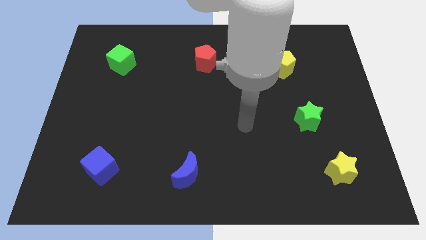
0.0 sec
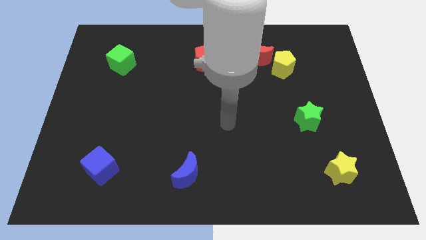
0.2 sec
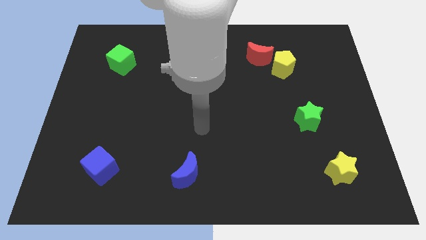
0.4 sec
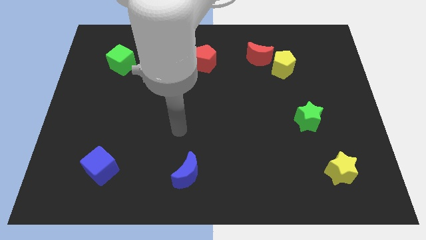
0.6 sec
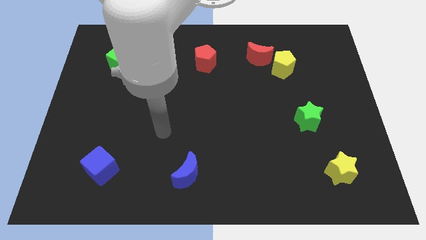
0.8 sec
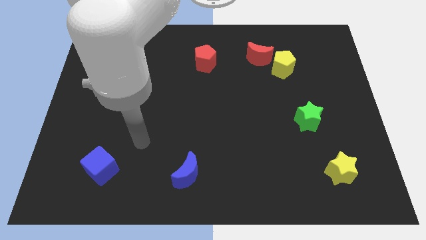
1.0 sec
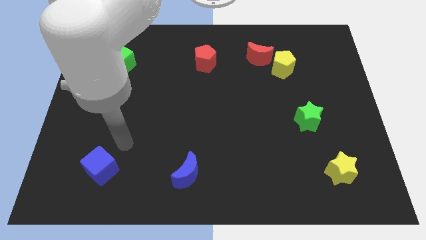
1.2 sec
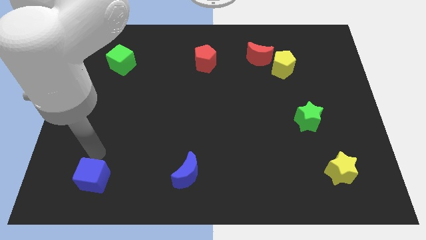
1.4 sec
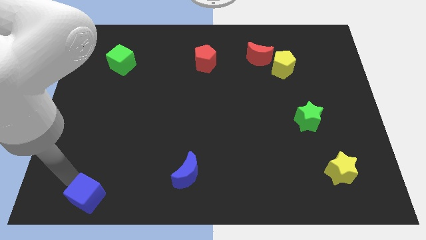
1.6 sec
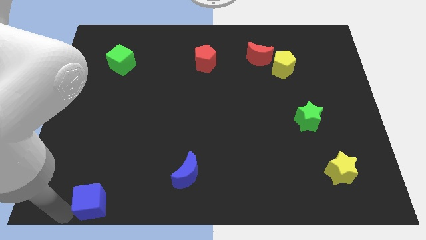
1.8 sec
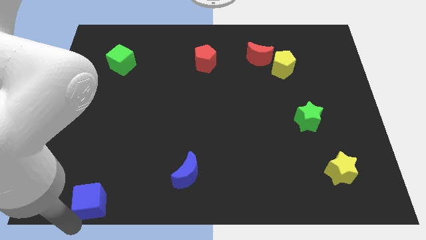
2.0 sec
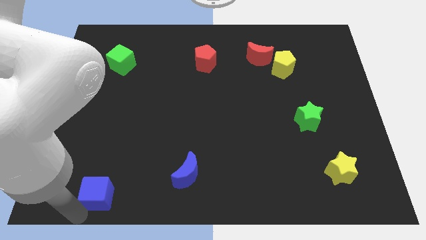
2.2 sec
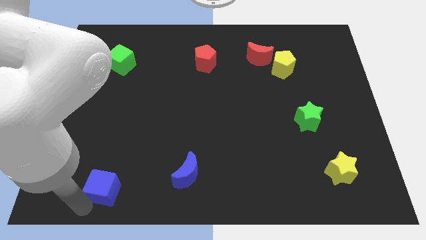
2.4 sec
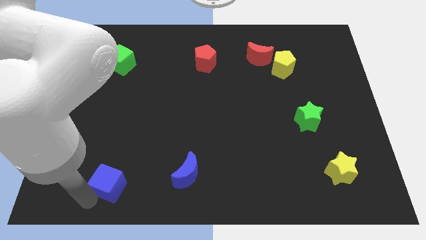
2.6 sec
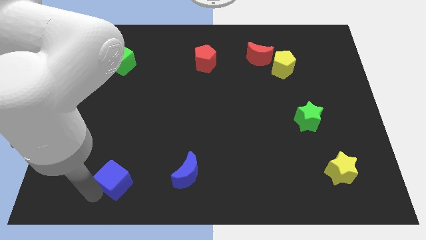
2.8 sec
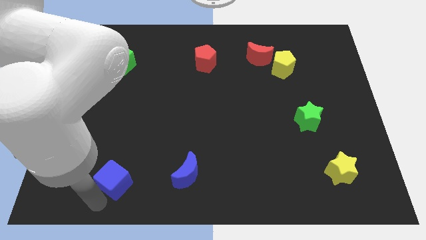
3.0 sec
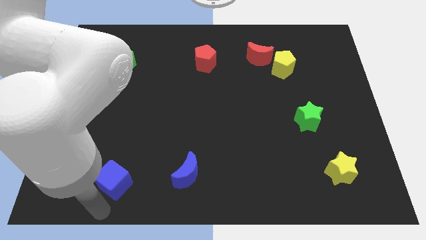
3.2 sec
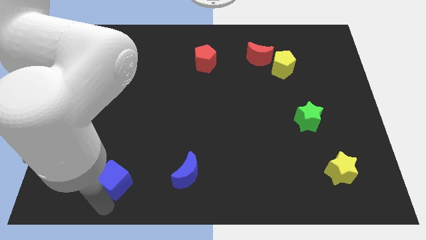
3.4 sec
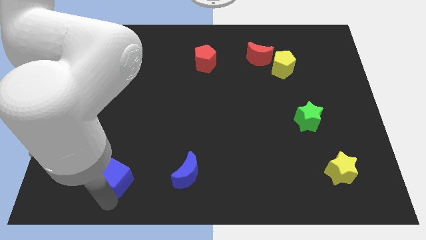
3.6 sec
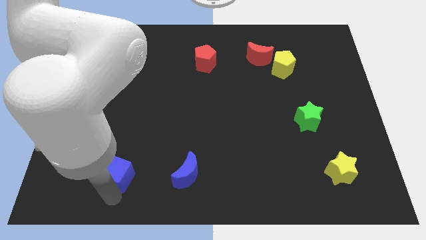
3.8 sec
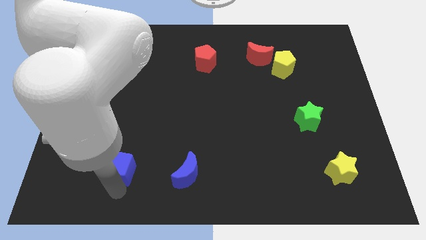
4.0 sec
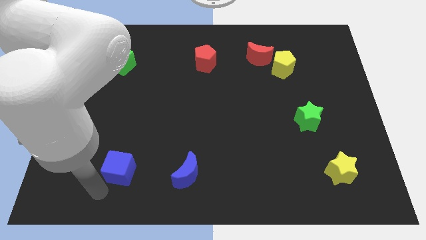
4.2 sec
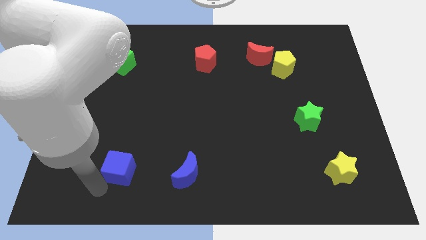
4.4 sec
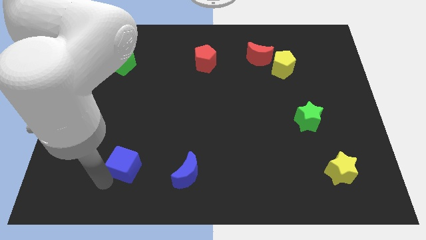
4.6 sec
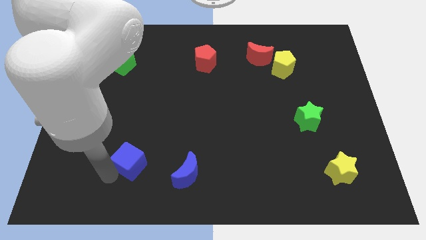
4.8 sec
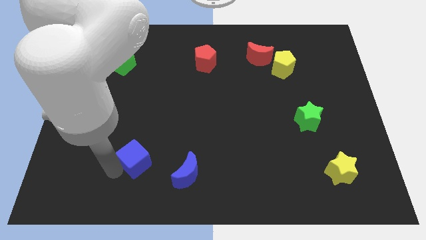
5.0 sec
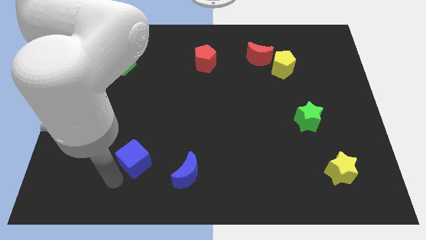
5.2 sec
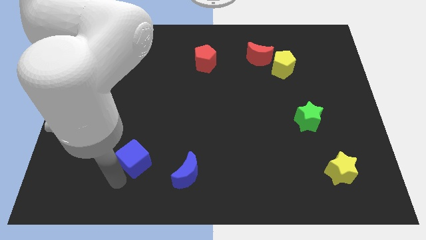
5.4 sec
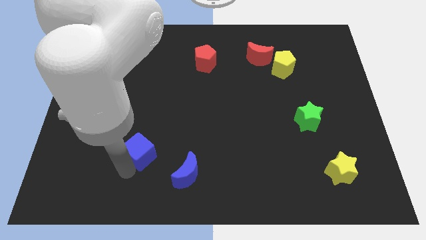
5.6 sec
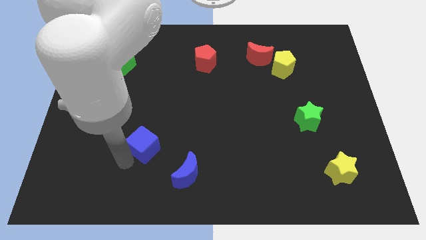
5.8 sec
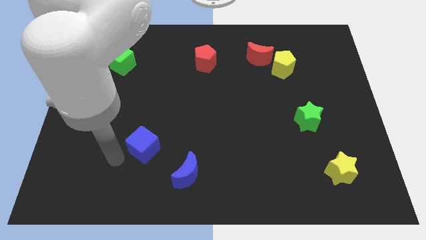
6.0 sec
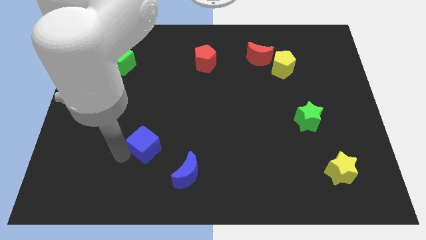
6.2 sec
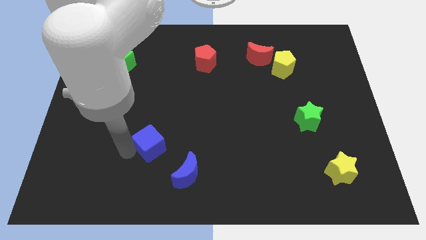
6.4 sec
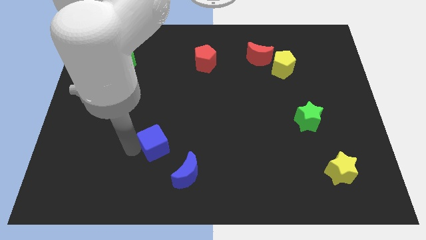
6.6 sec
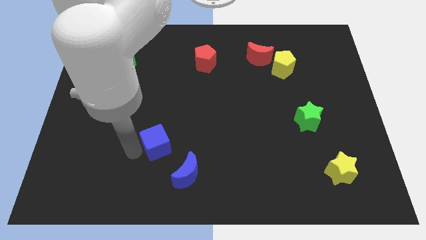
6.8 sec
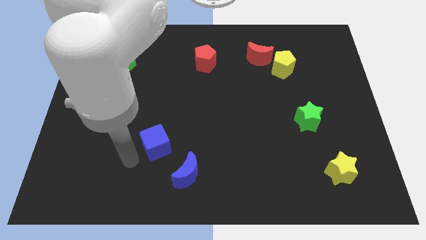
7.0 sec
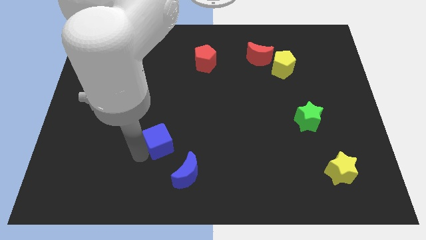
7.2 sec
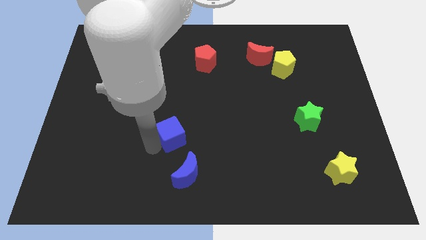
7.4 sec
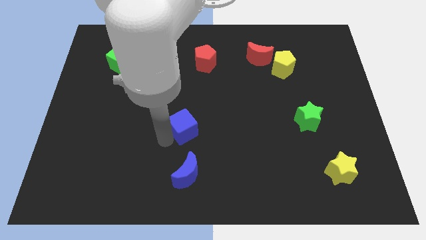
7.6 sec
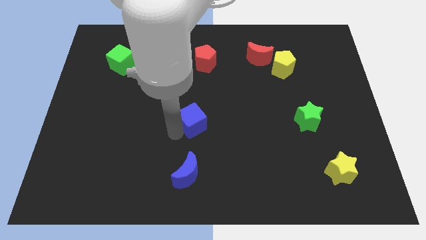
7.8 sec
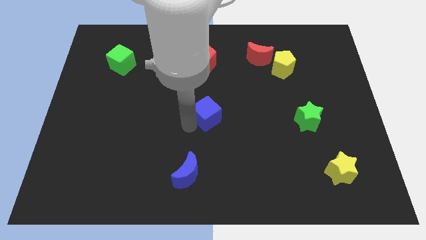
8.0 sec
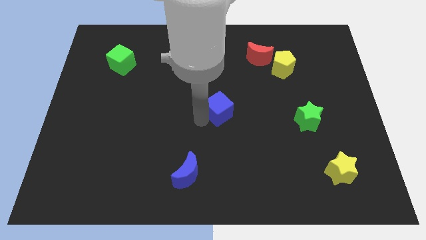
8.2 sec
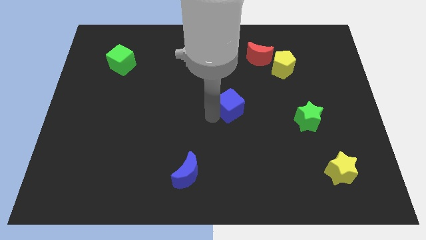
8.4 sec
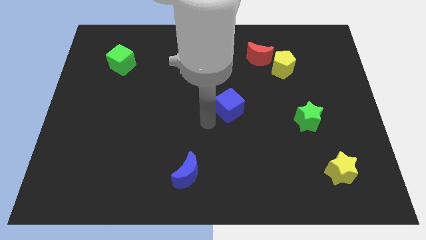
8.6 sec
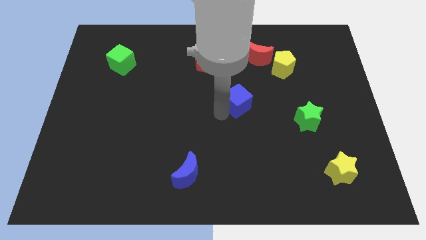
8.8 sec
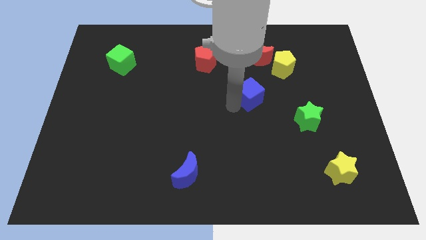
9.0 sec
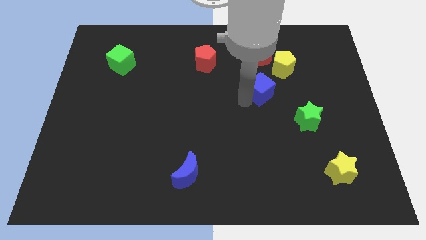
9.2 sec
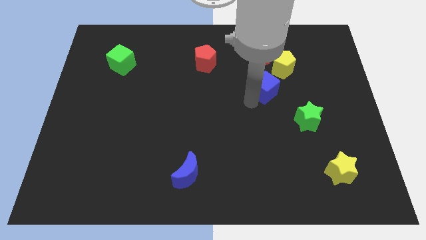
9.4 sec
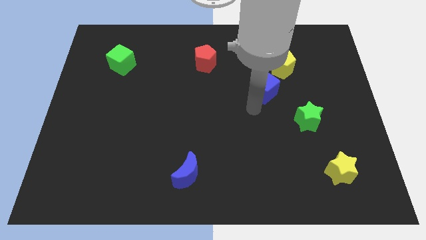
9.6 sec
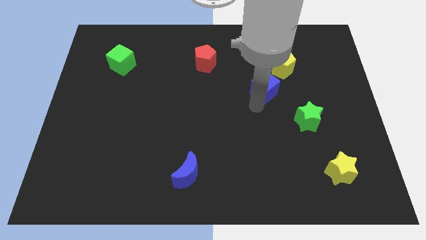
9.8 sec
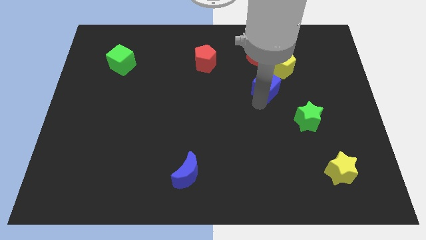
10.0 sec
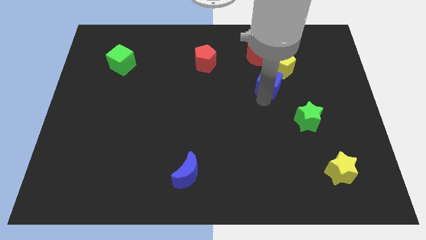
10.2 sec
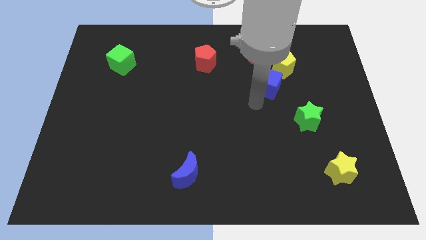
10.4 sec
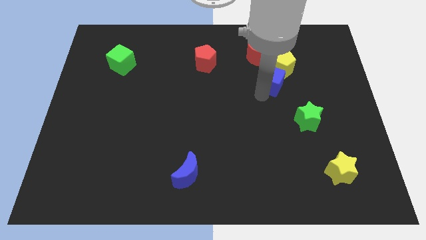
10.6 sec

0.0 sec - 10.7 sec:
slide the blue cube to the yellow pentagon

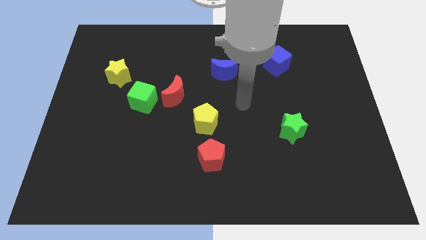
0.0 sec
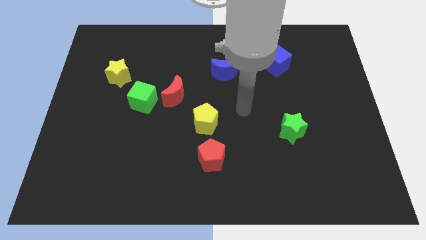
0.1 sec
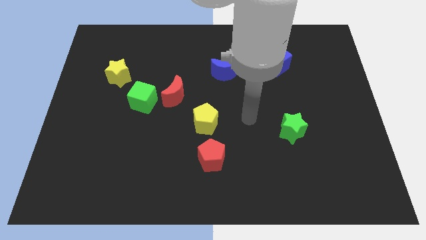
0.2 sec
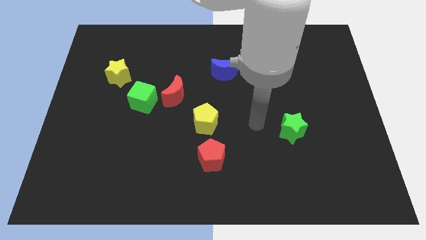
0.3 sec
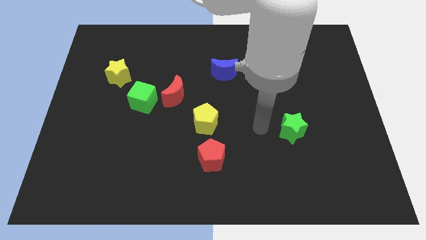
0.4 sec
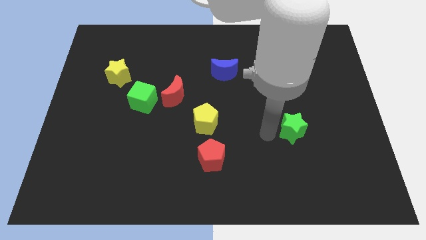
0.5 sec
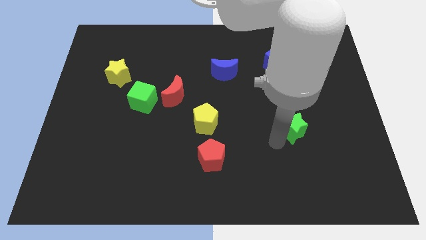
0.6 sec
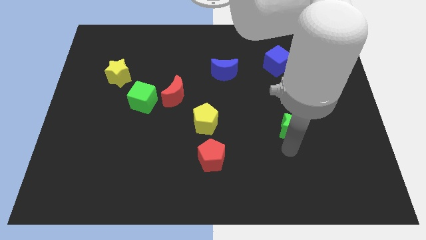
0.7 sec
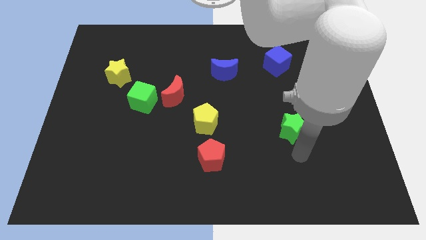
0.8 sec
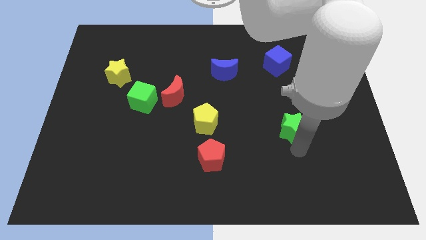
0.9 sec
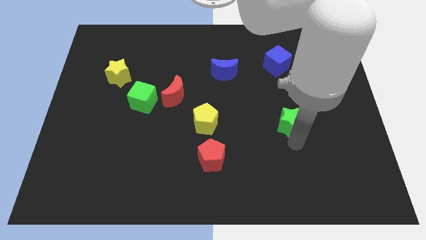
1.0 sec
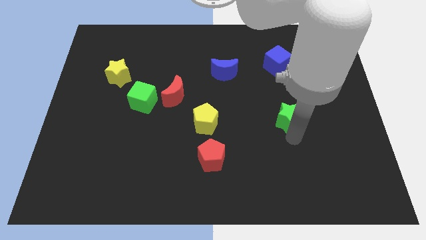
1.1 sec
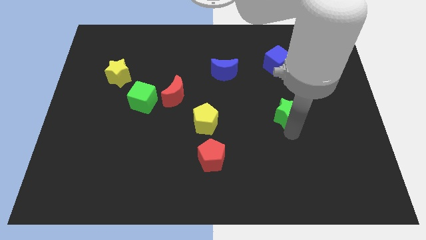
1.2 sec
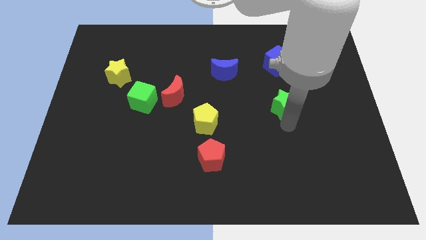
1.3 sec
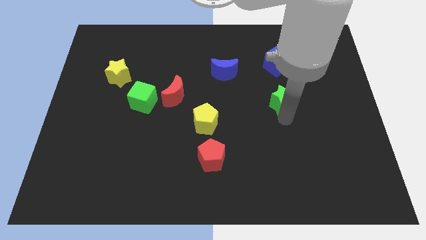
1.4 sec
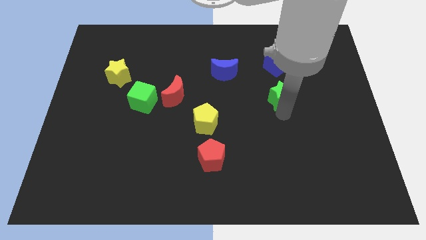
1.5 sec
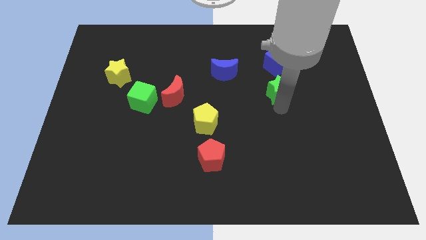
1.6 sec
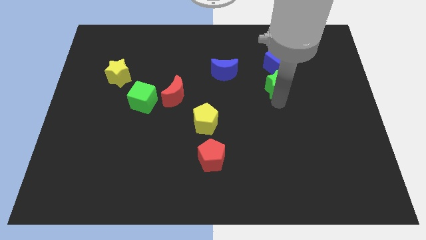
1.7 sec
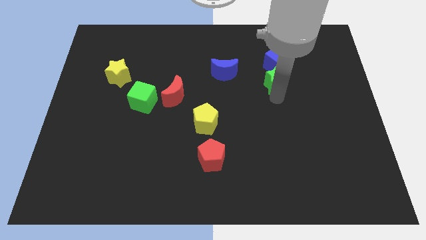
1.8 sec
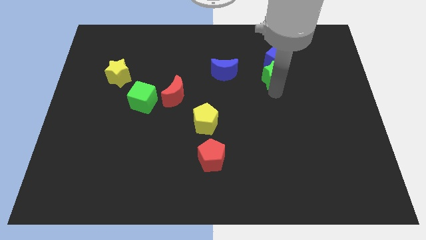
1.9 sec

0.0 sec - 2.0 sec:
move the green star to the blue cube
